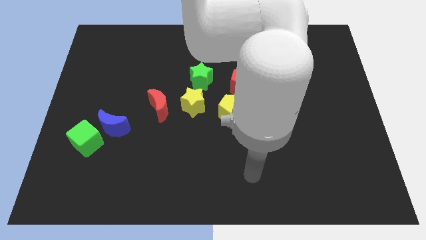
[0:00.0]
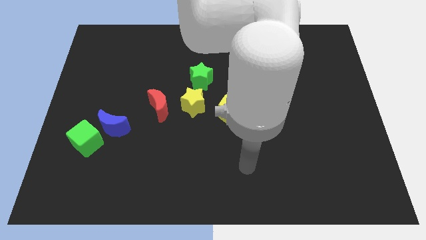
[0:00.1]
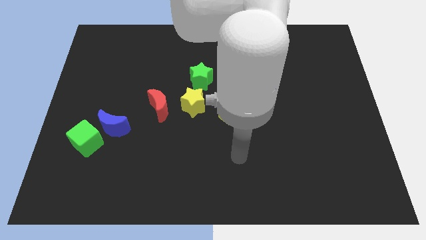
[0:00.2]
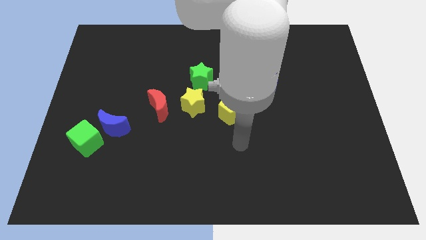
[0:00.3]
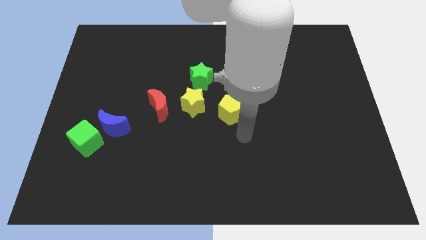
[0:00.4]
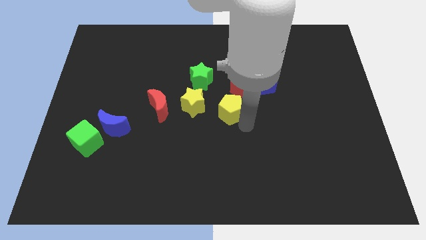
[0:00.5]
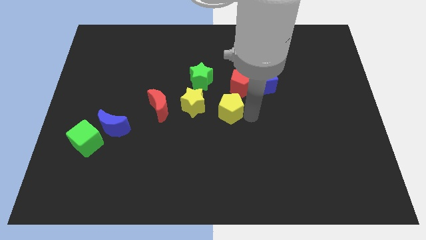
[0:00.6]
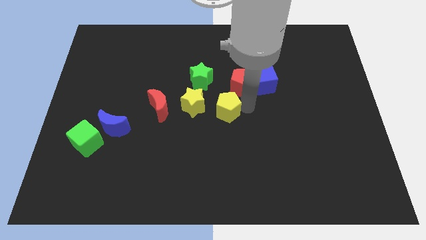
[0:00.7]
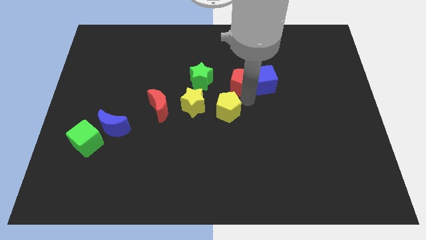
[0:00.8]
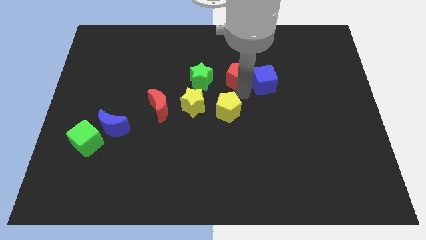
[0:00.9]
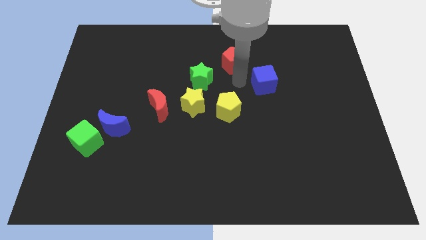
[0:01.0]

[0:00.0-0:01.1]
separate the blue cube from the red pentagon

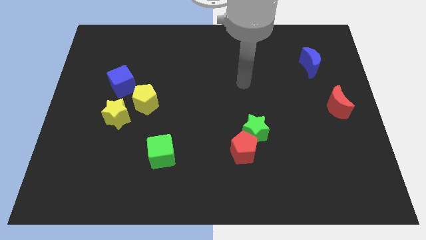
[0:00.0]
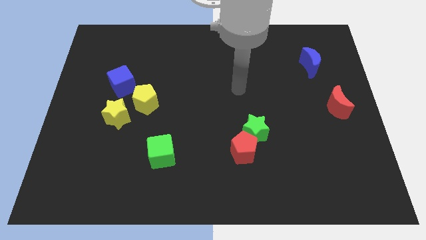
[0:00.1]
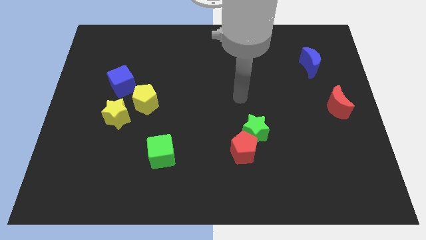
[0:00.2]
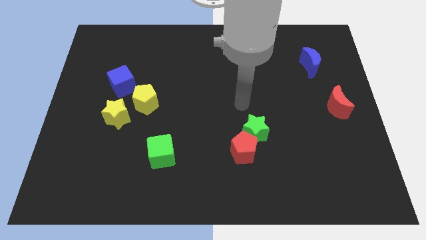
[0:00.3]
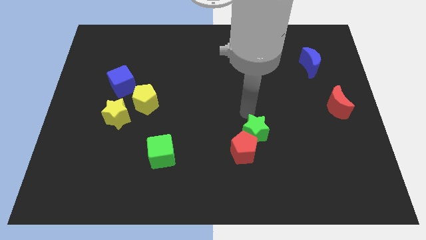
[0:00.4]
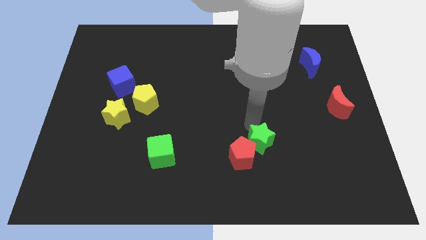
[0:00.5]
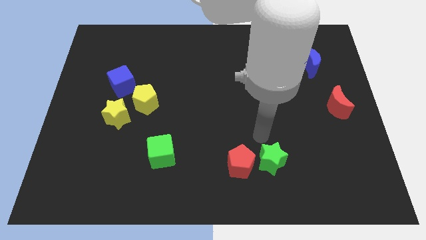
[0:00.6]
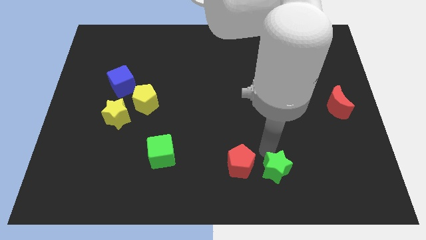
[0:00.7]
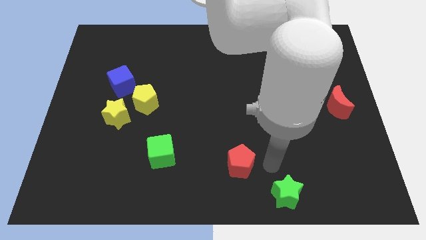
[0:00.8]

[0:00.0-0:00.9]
separate the red pentagon from the green star

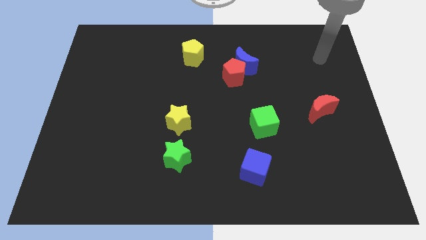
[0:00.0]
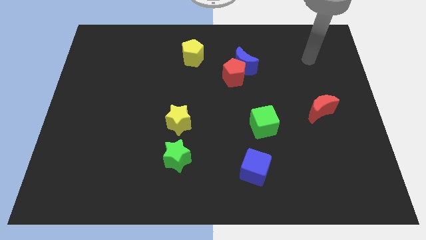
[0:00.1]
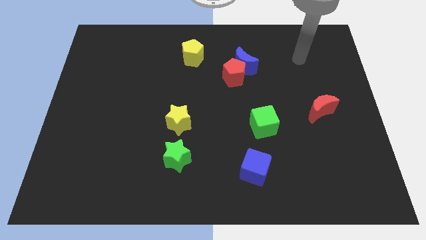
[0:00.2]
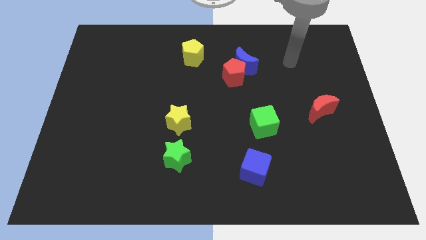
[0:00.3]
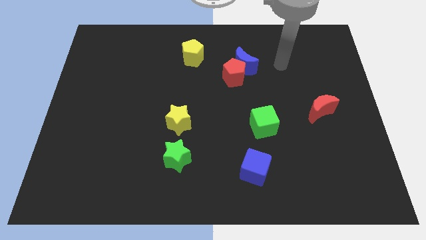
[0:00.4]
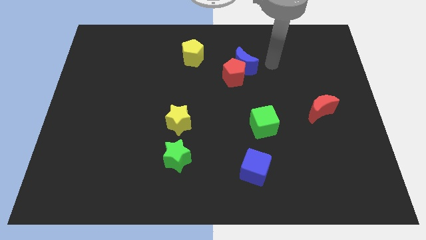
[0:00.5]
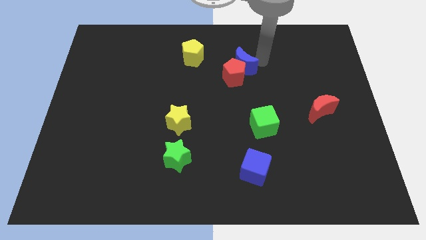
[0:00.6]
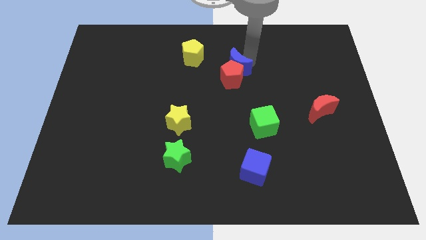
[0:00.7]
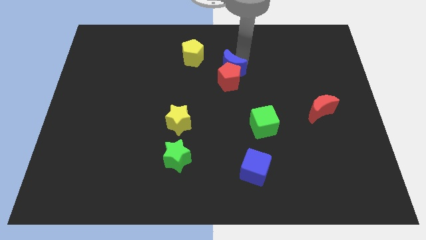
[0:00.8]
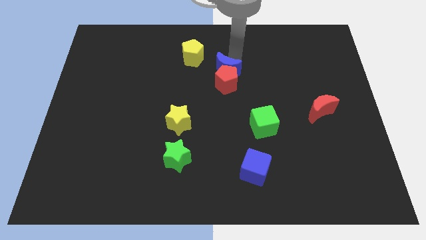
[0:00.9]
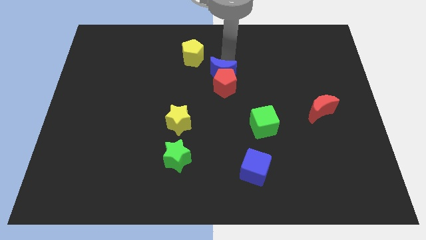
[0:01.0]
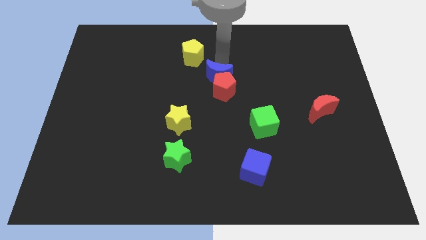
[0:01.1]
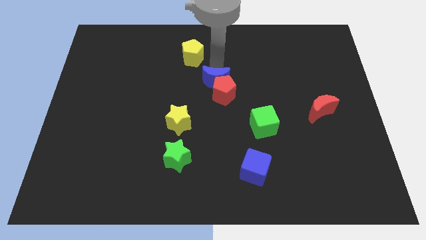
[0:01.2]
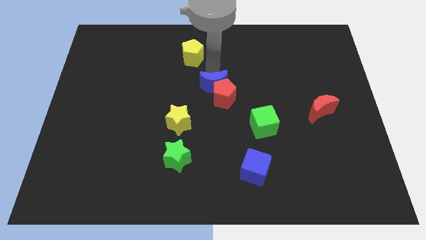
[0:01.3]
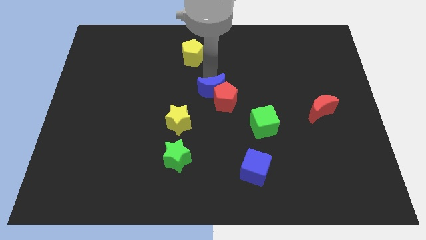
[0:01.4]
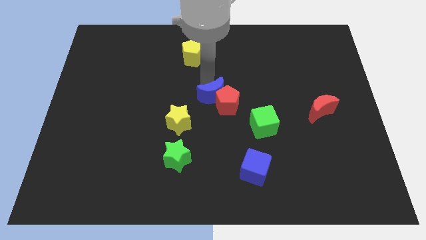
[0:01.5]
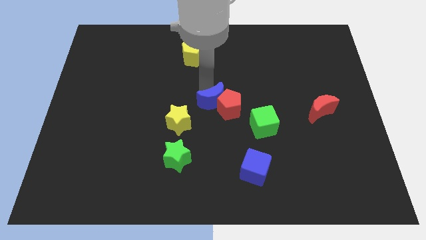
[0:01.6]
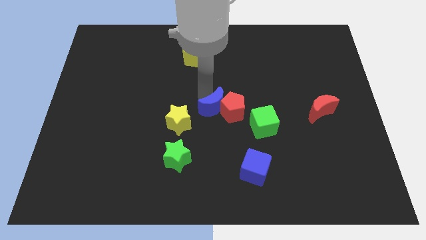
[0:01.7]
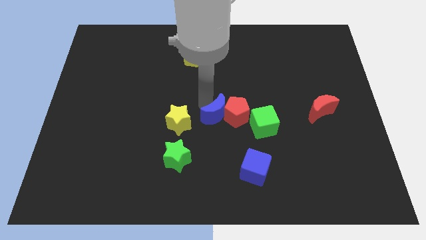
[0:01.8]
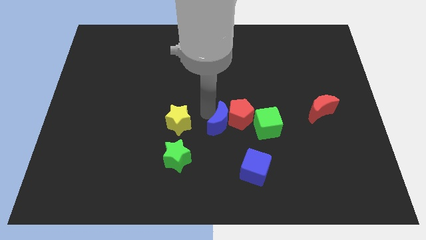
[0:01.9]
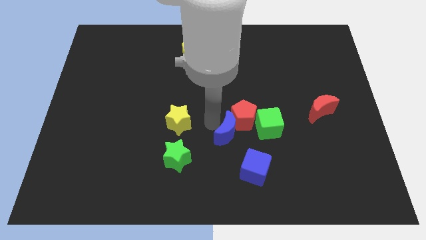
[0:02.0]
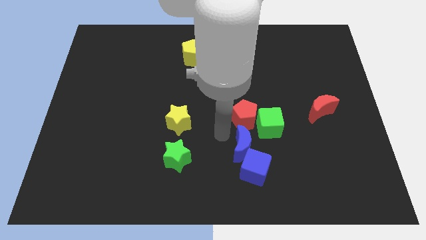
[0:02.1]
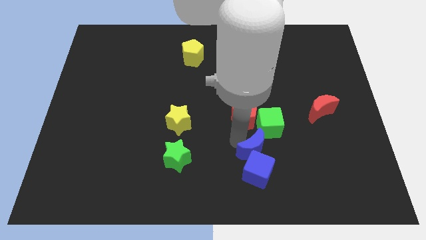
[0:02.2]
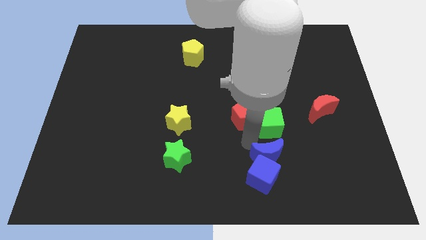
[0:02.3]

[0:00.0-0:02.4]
move the red pentagon away from the blue moon

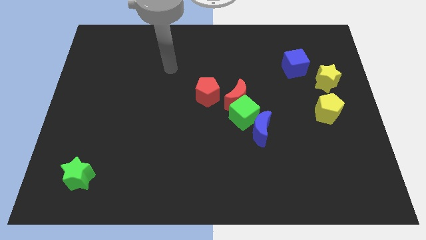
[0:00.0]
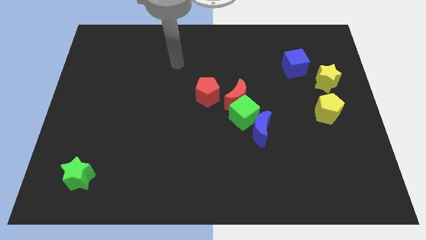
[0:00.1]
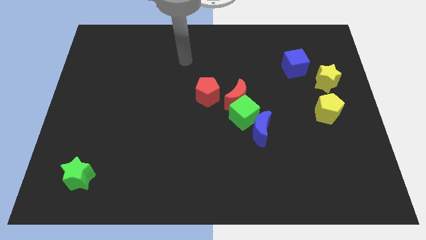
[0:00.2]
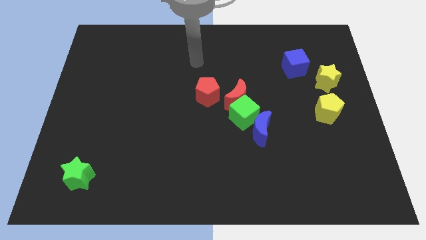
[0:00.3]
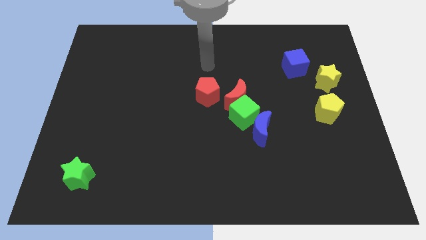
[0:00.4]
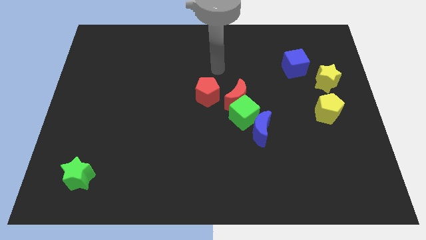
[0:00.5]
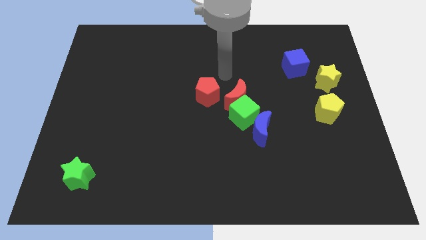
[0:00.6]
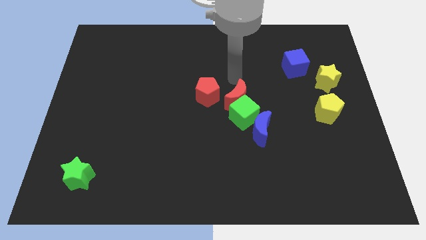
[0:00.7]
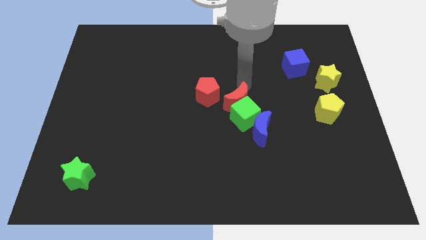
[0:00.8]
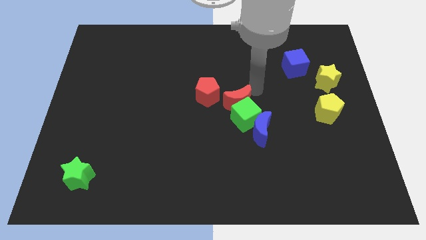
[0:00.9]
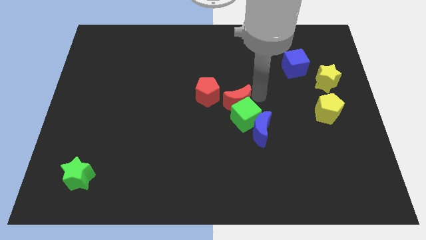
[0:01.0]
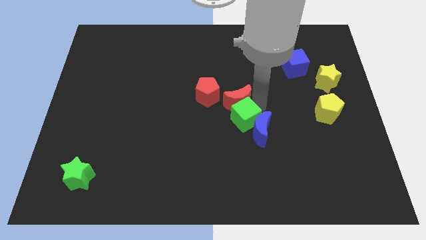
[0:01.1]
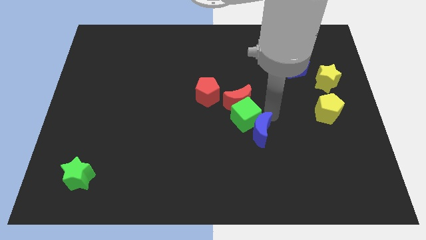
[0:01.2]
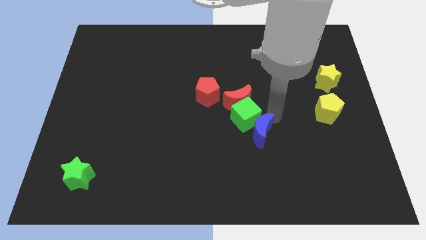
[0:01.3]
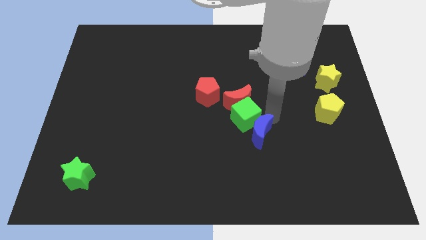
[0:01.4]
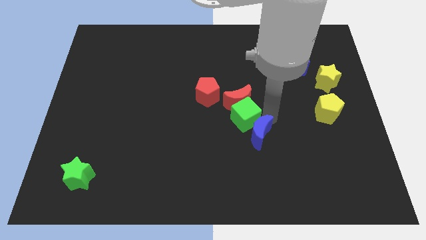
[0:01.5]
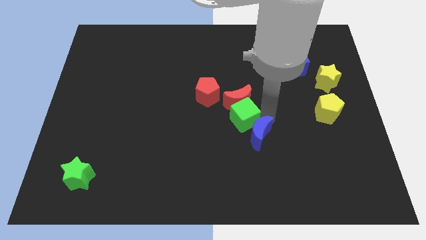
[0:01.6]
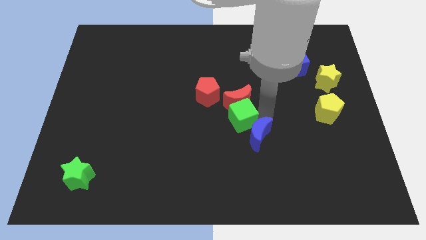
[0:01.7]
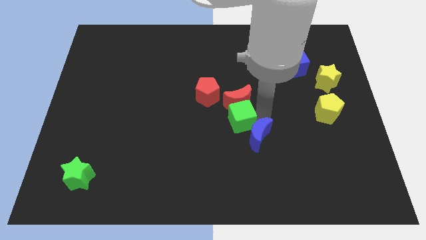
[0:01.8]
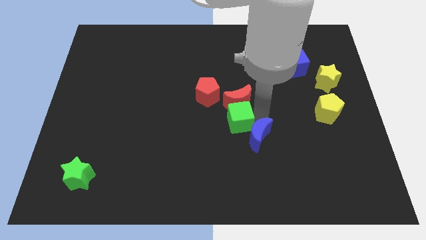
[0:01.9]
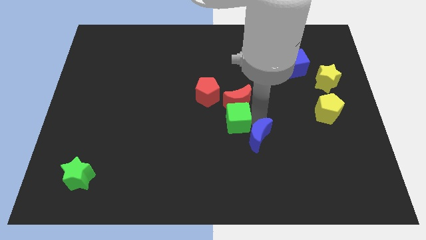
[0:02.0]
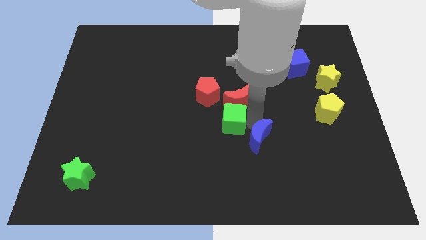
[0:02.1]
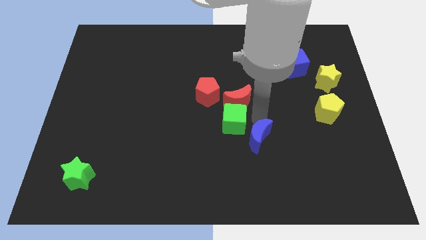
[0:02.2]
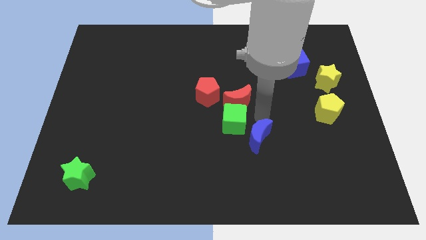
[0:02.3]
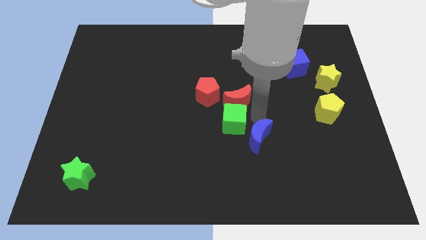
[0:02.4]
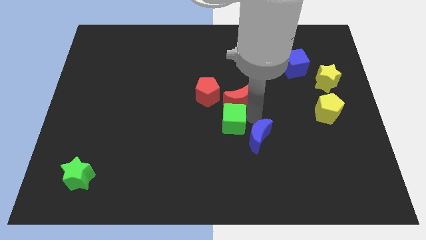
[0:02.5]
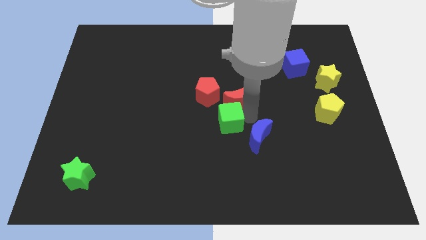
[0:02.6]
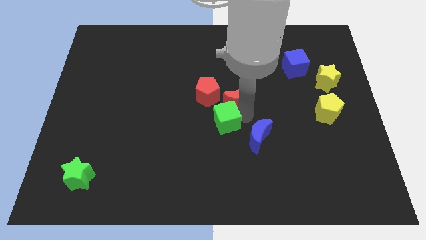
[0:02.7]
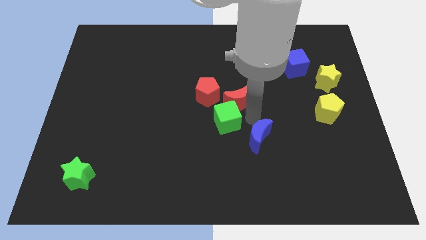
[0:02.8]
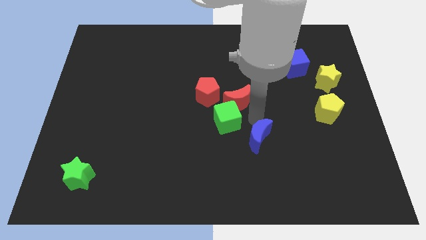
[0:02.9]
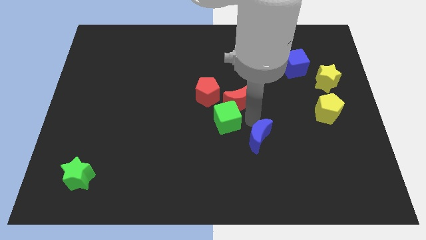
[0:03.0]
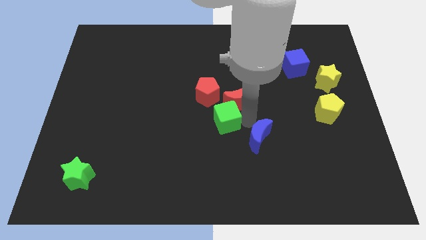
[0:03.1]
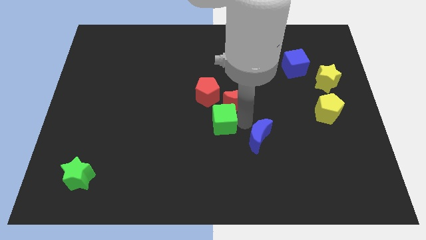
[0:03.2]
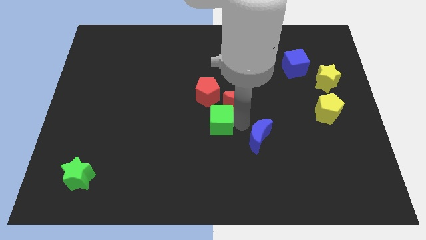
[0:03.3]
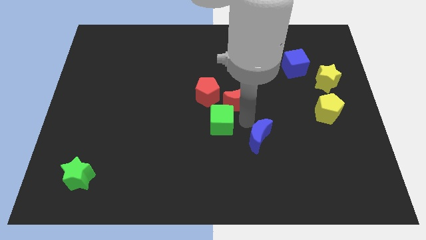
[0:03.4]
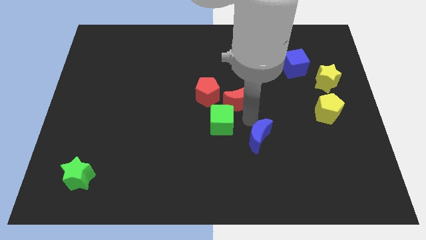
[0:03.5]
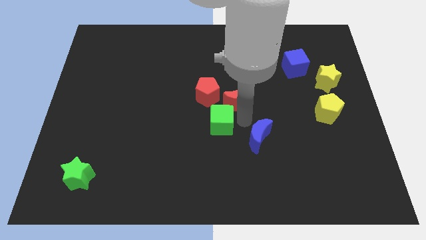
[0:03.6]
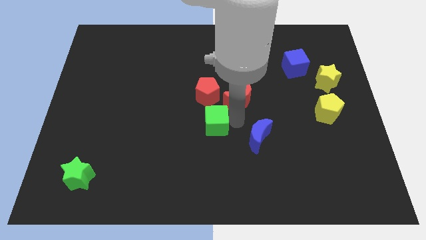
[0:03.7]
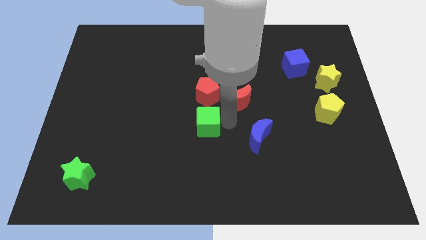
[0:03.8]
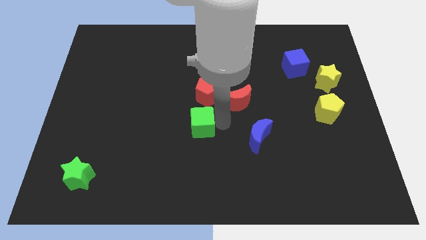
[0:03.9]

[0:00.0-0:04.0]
move the green cube away from the red moon and blue moon

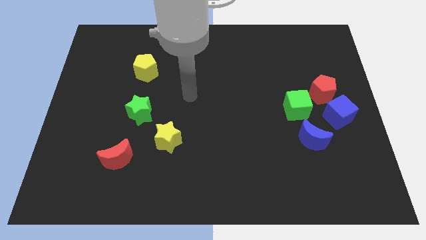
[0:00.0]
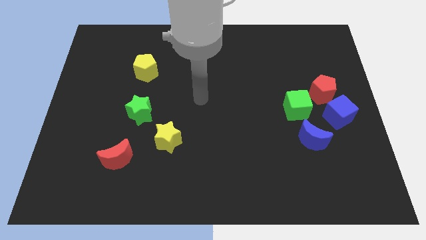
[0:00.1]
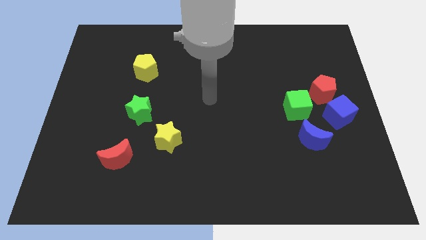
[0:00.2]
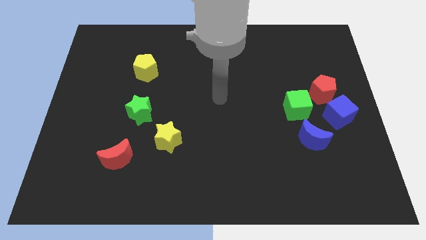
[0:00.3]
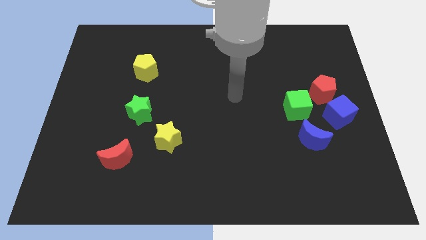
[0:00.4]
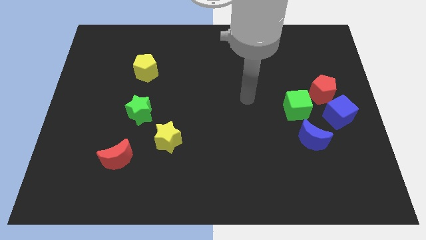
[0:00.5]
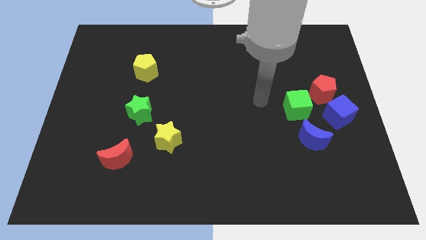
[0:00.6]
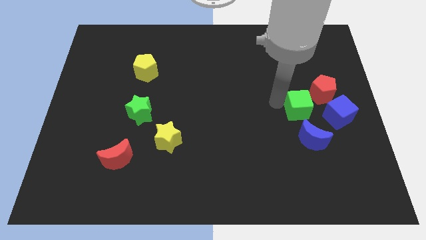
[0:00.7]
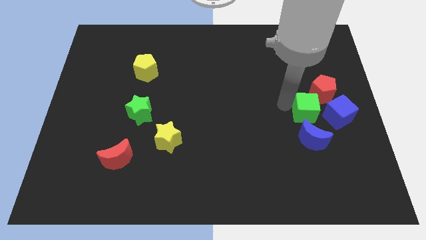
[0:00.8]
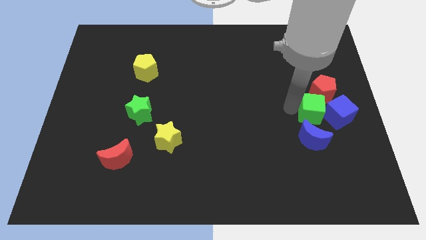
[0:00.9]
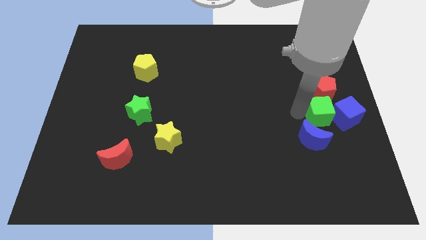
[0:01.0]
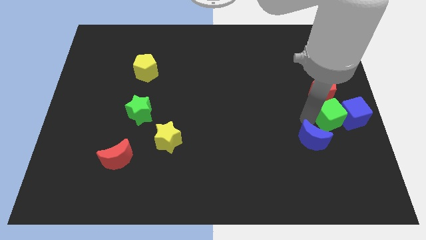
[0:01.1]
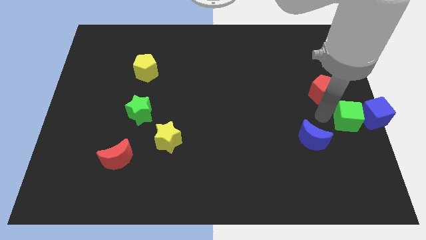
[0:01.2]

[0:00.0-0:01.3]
move the red pentagon away from the blue cube and green cube
